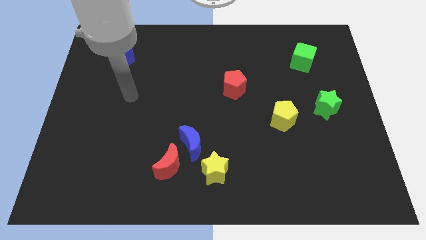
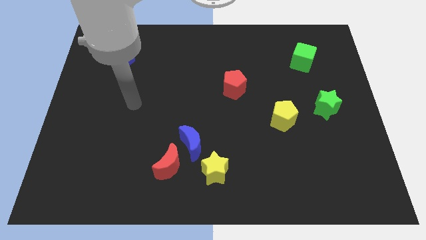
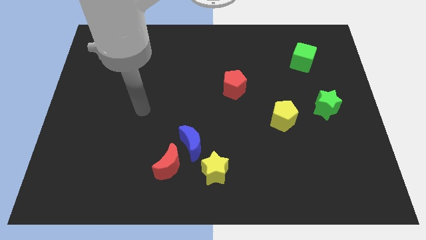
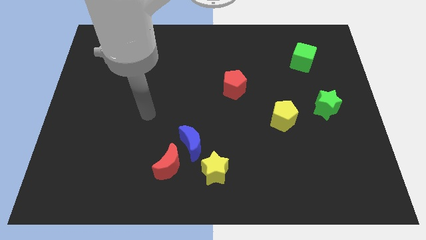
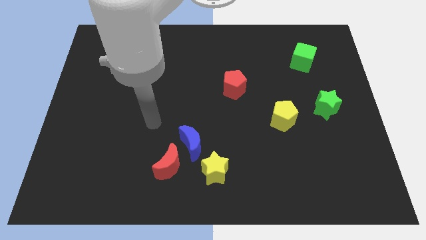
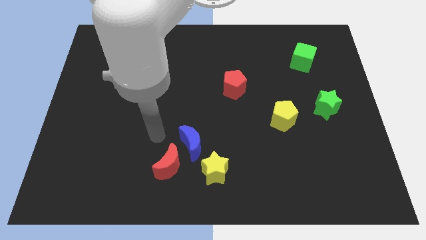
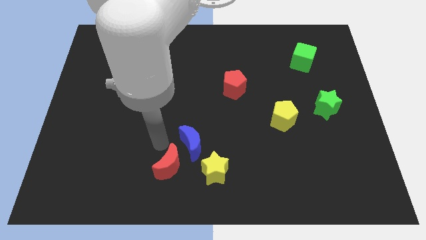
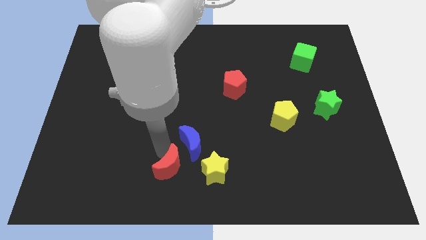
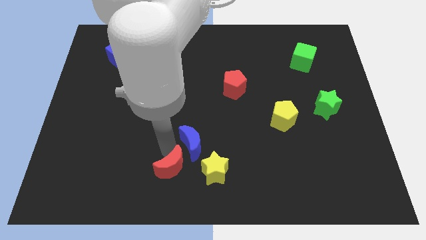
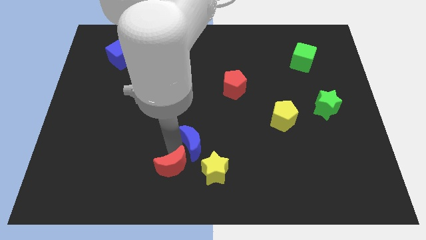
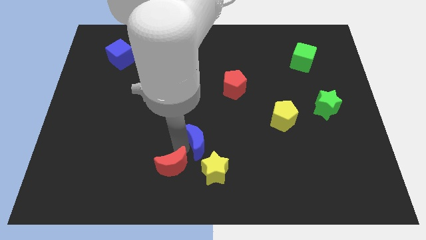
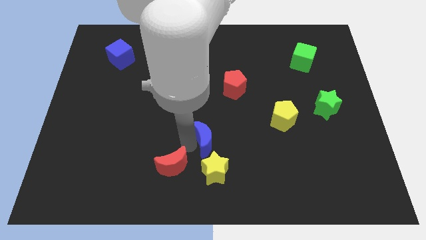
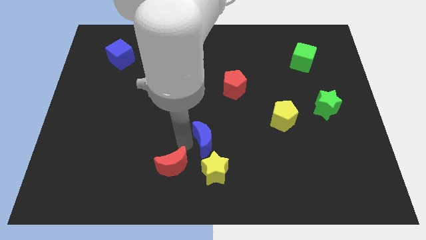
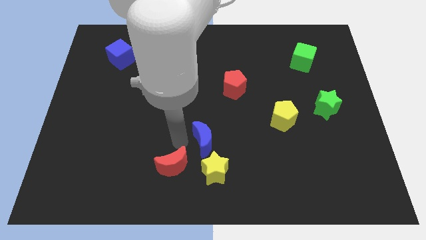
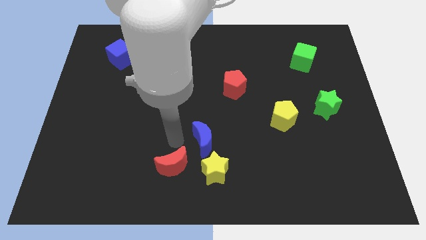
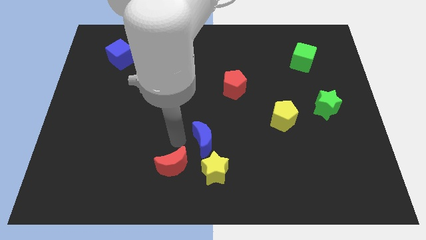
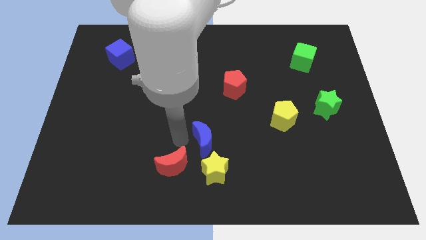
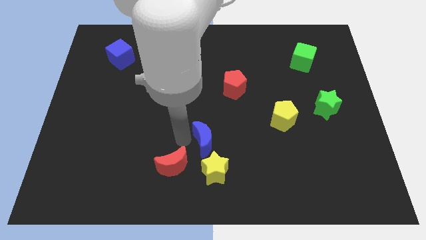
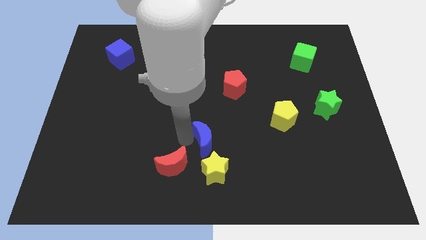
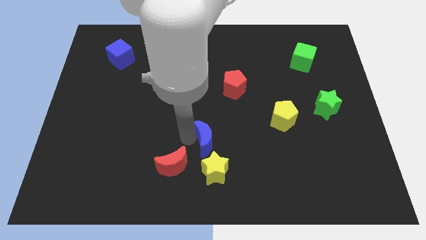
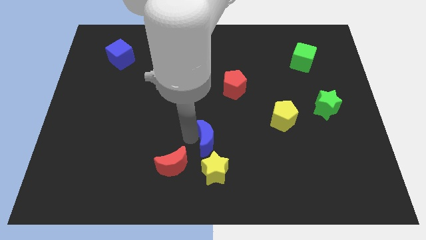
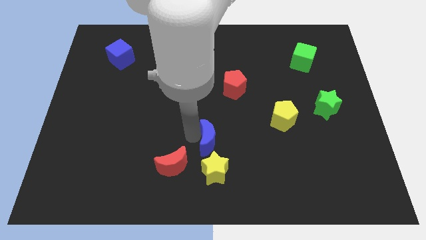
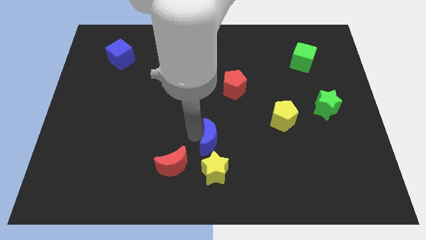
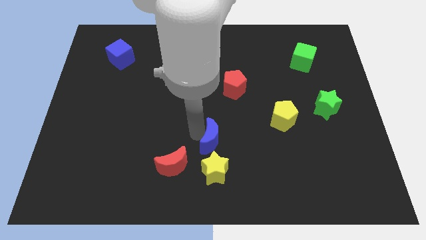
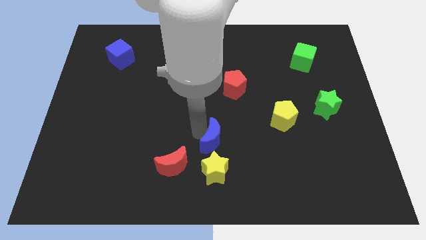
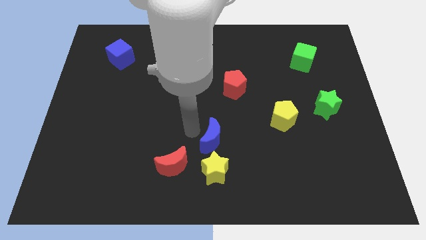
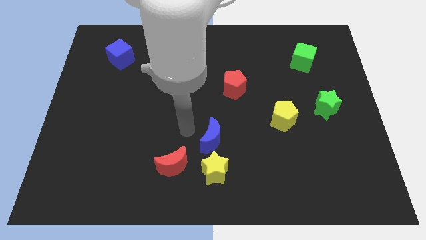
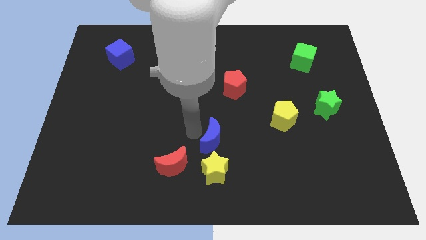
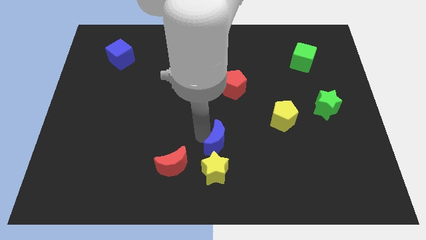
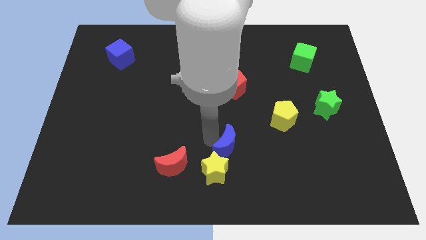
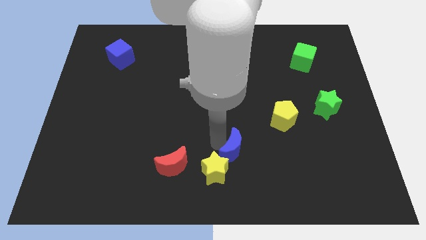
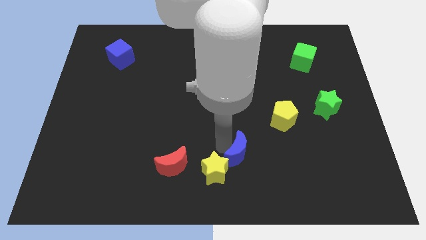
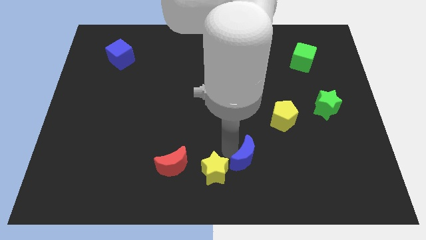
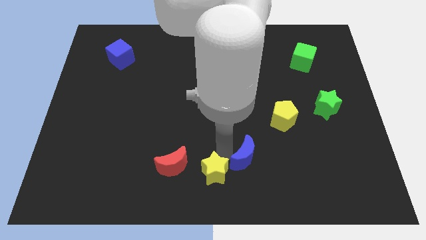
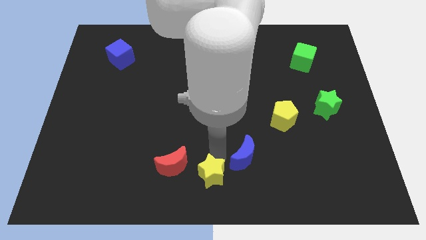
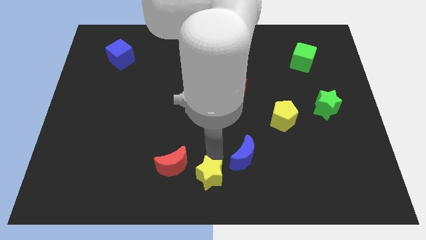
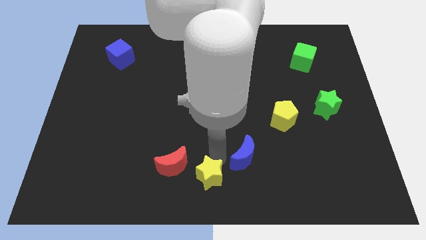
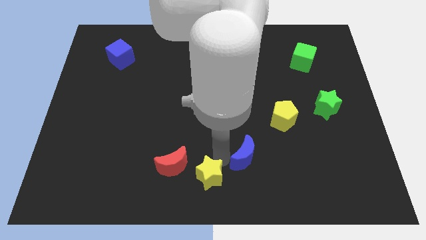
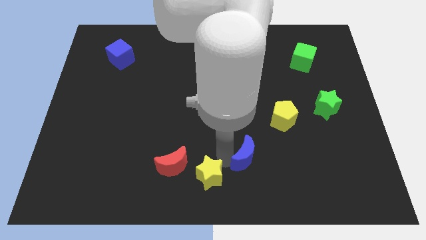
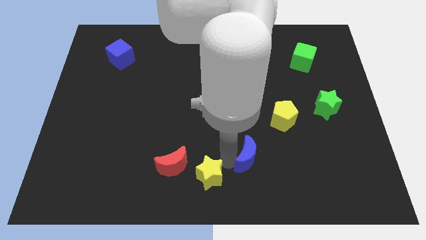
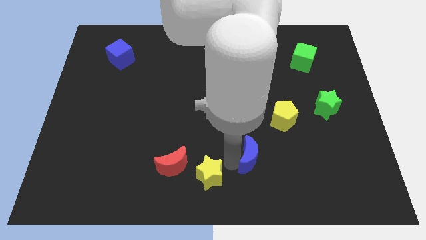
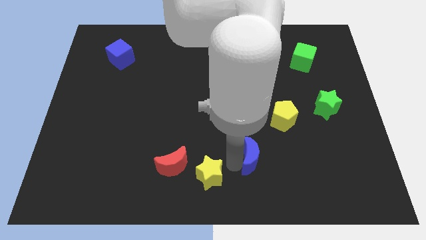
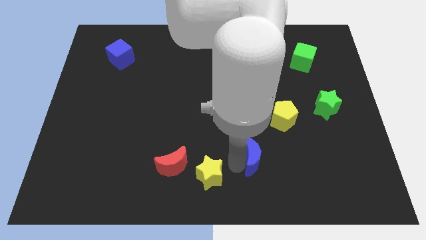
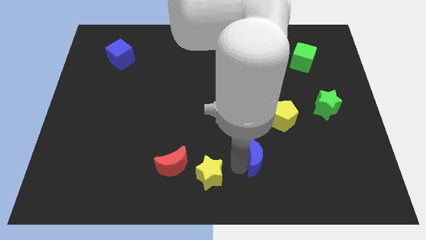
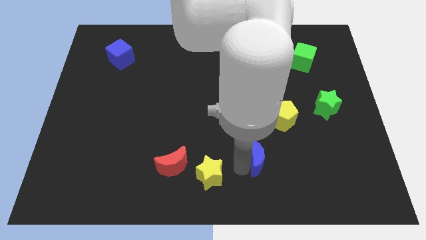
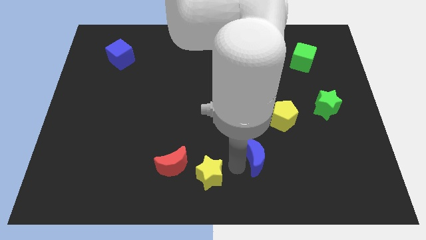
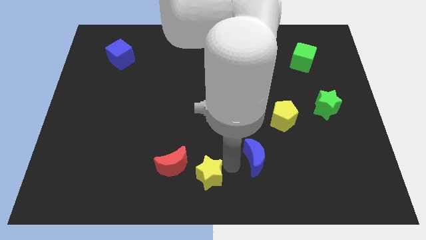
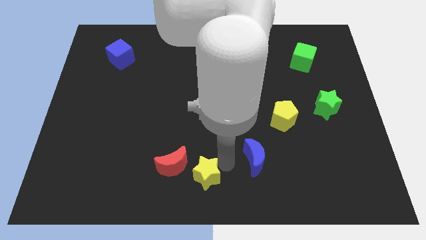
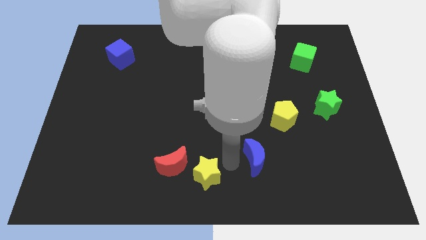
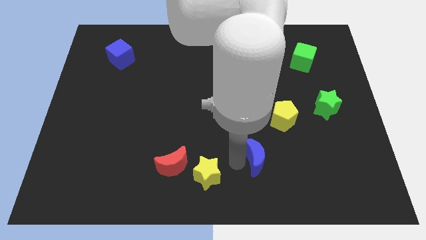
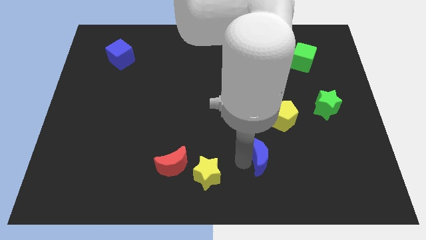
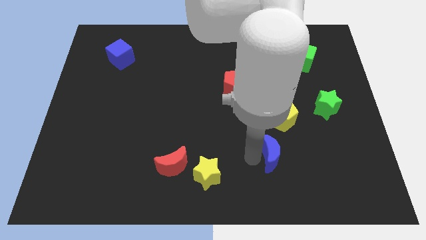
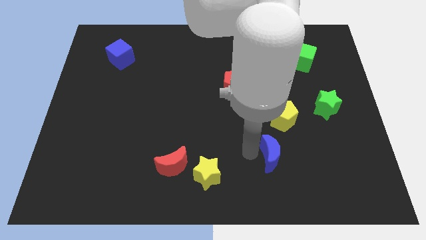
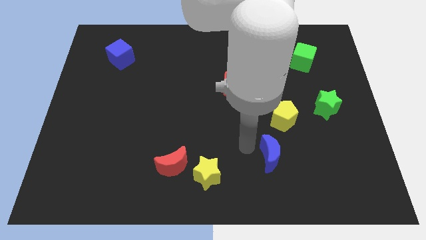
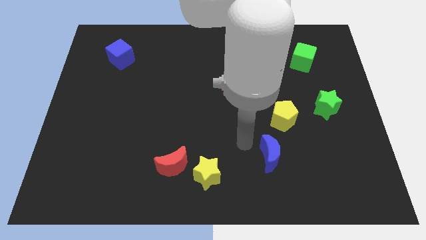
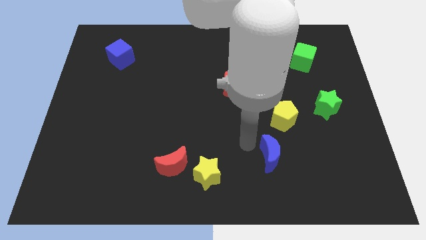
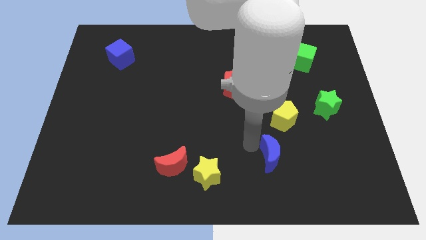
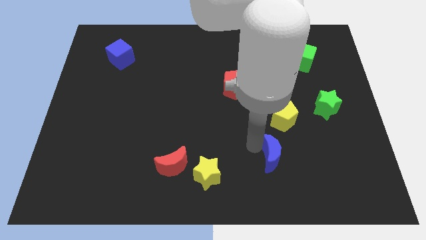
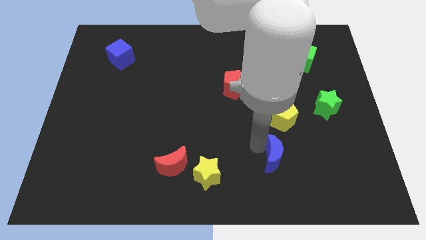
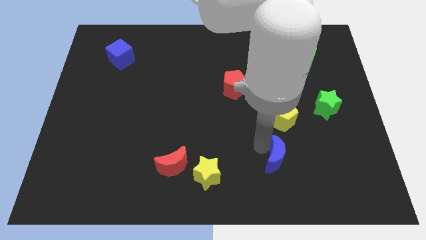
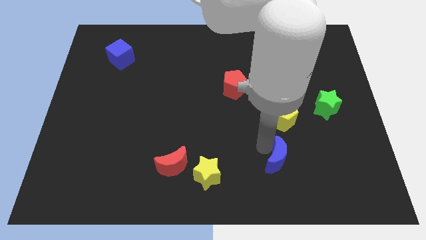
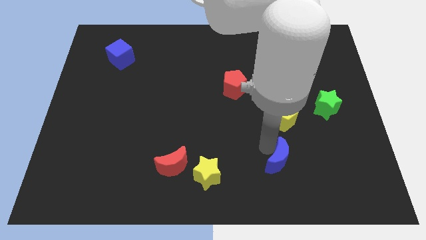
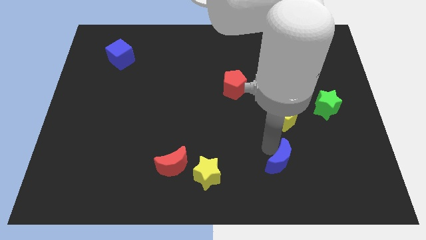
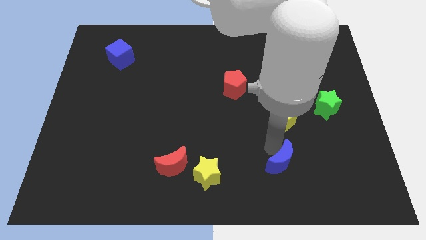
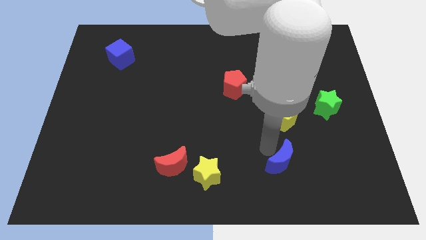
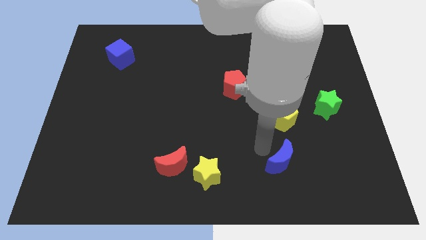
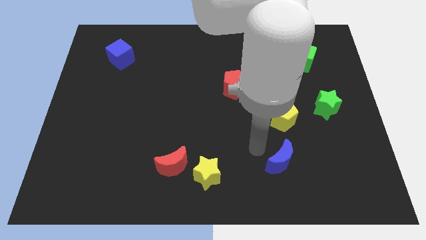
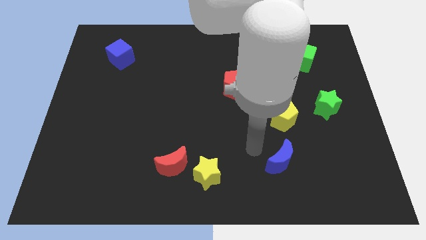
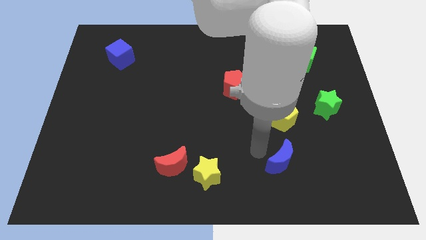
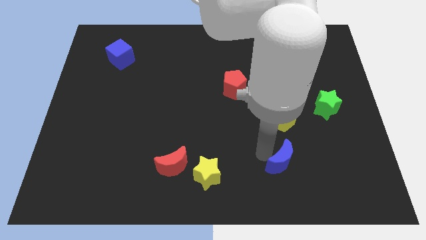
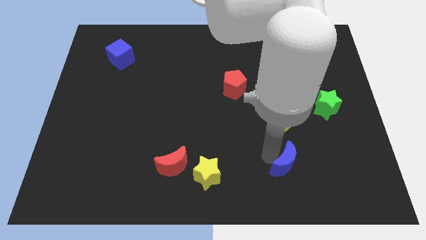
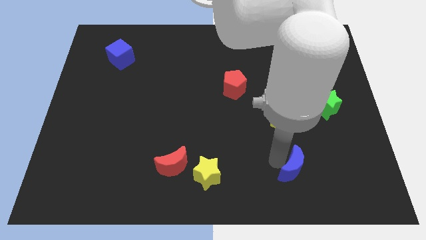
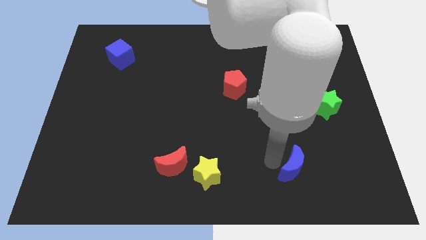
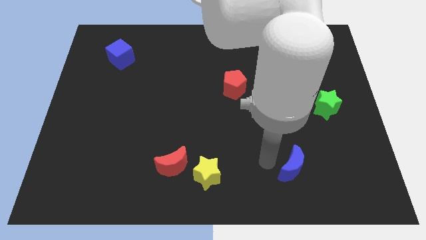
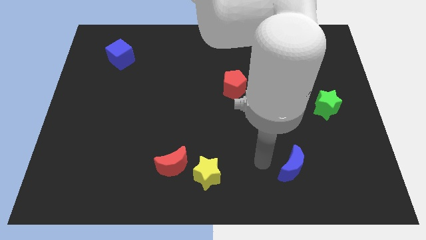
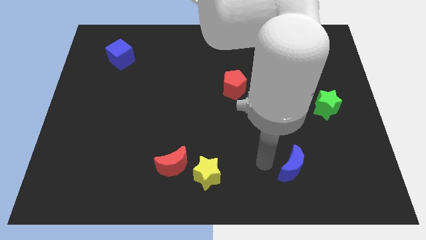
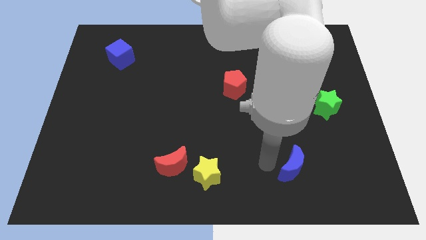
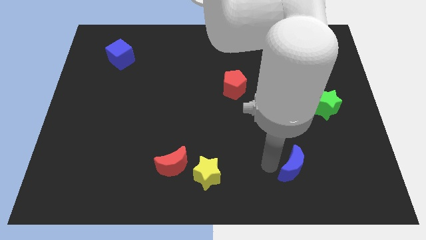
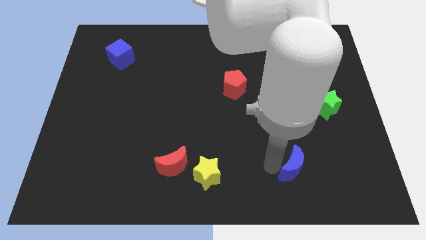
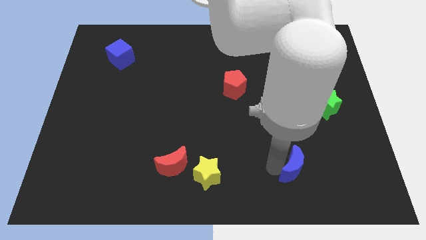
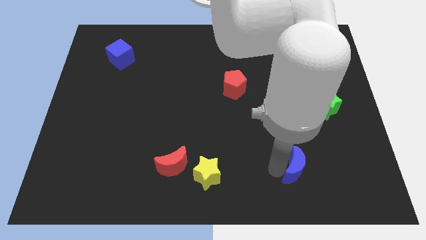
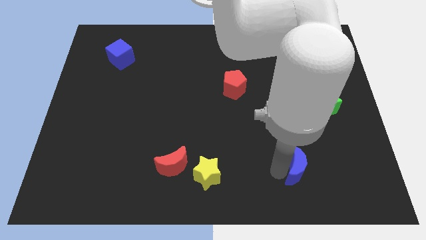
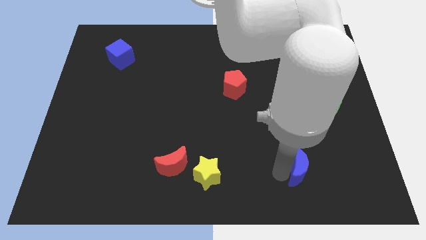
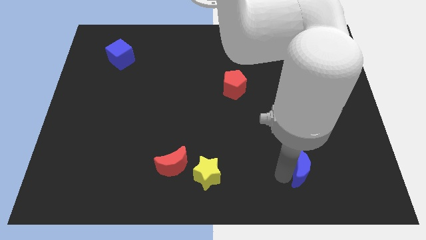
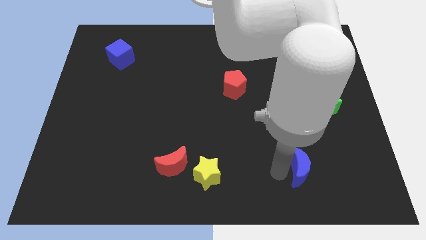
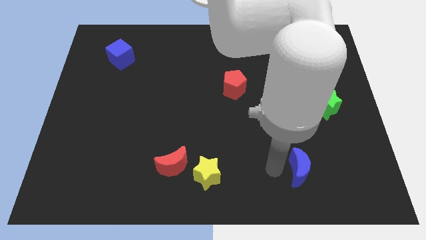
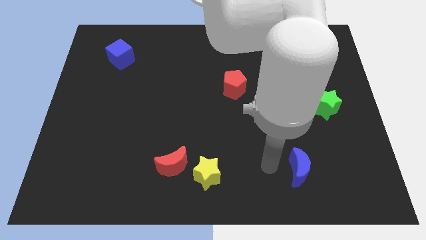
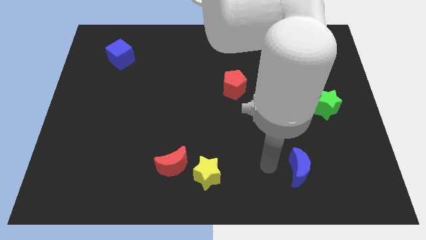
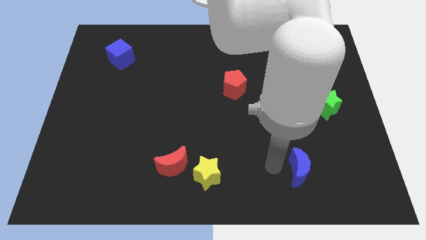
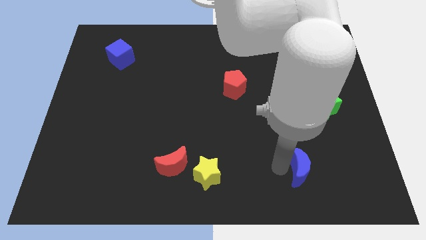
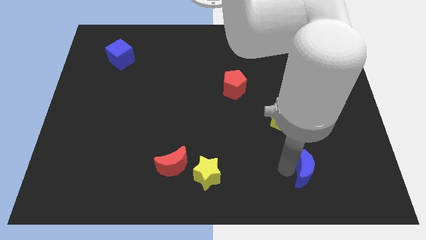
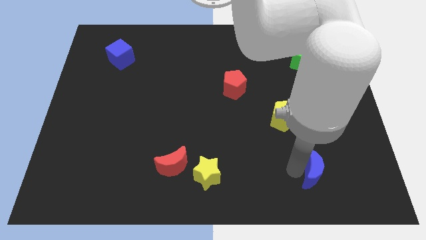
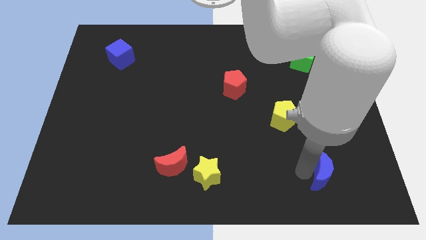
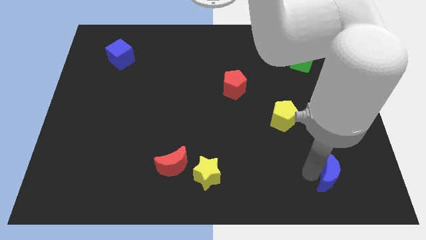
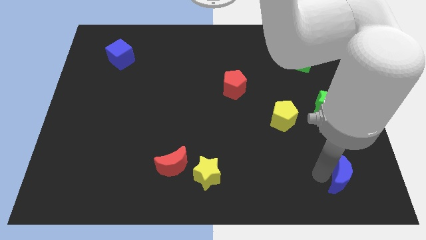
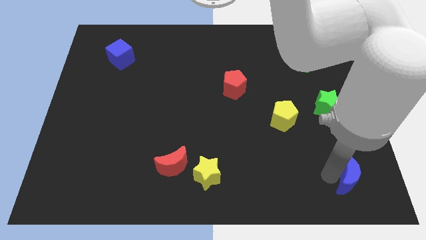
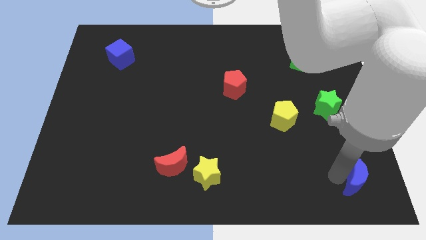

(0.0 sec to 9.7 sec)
push the blue moon to the lower right corner
